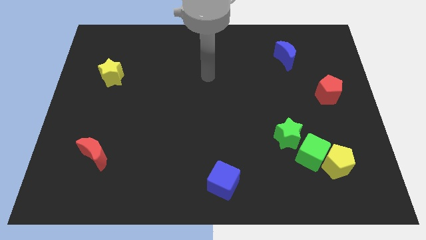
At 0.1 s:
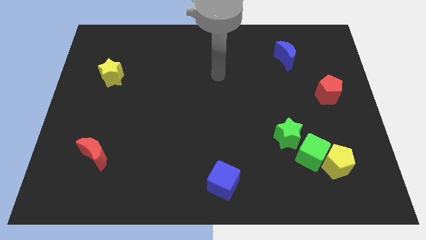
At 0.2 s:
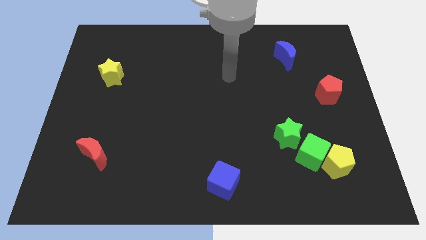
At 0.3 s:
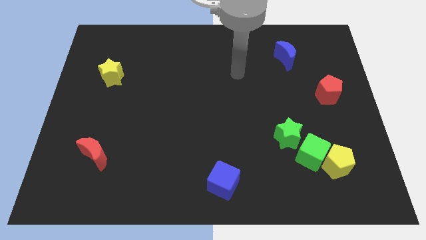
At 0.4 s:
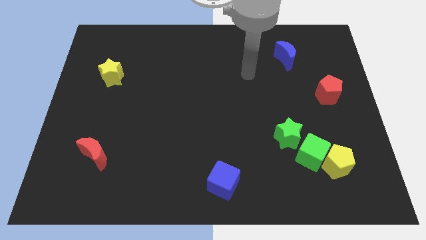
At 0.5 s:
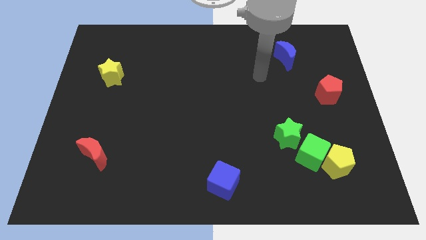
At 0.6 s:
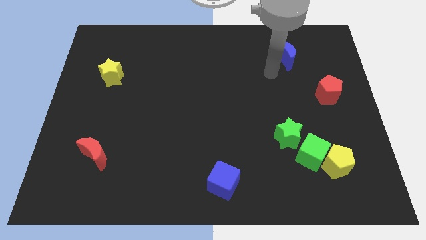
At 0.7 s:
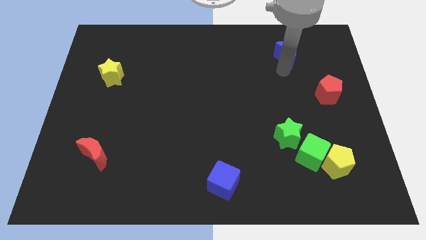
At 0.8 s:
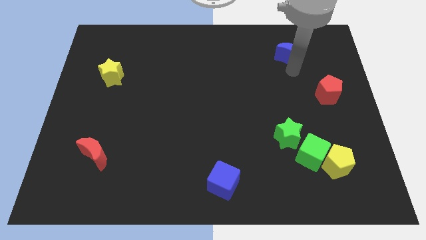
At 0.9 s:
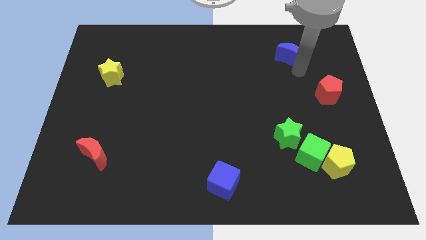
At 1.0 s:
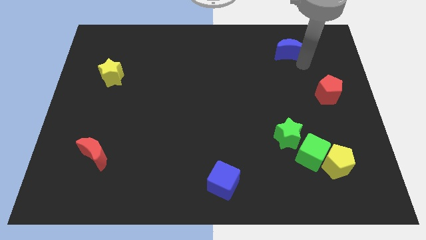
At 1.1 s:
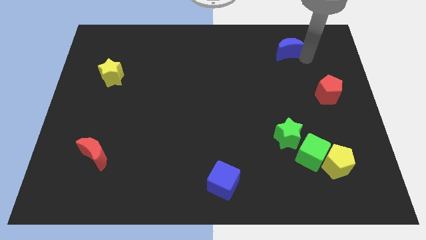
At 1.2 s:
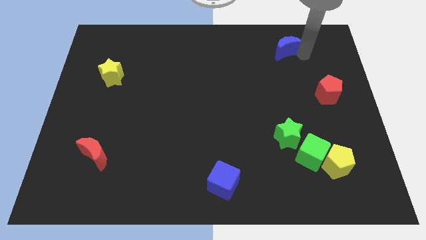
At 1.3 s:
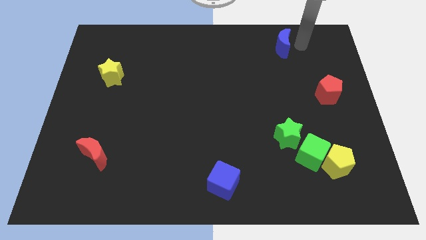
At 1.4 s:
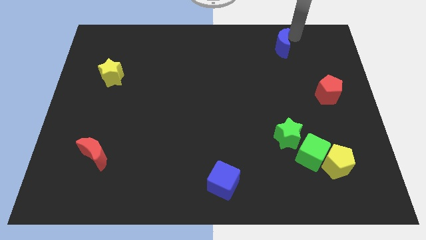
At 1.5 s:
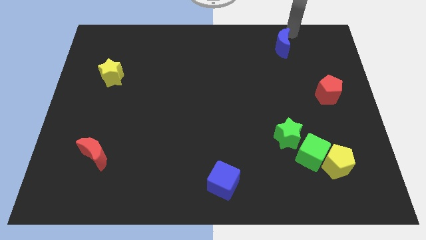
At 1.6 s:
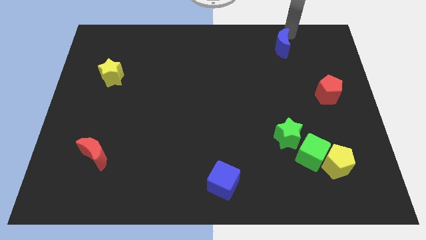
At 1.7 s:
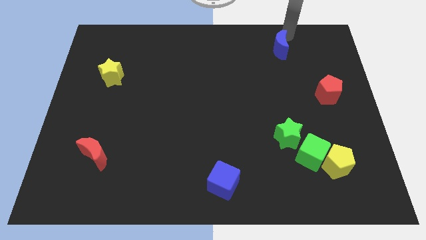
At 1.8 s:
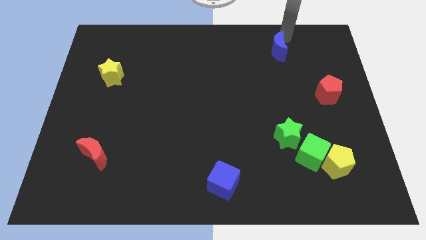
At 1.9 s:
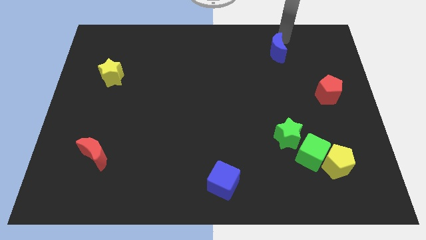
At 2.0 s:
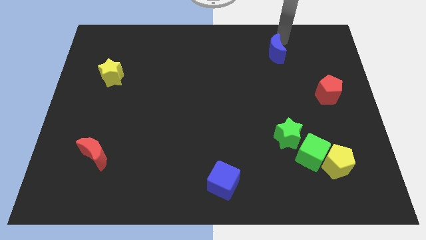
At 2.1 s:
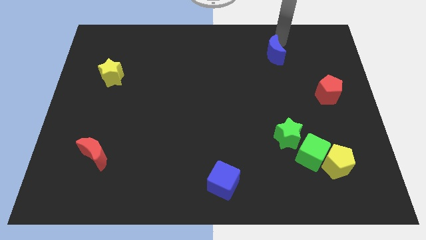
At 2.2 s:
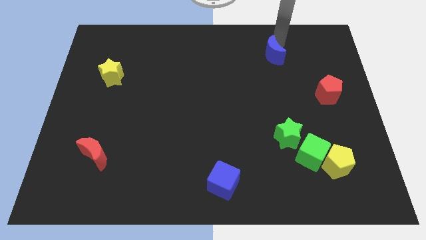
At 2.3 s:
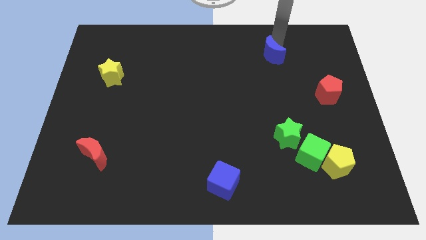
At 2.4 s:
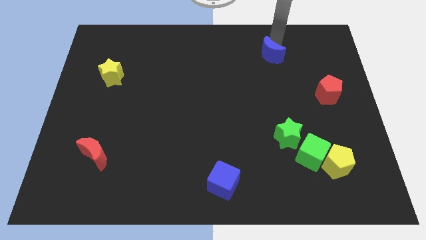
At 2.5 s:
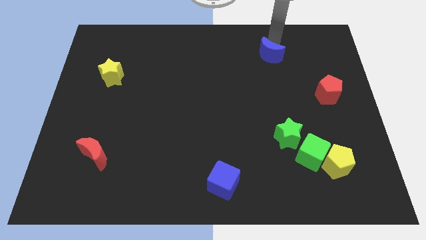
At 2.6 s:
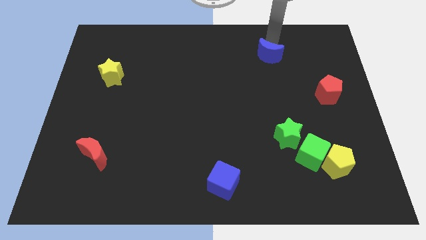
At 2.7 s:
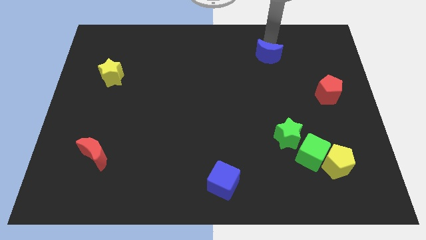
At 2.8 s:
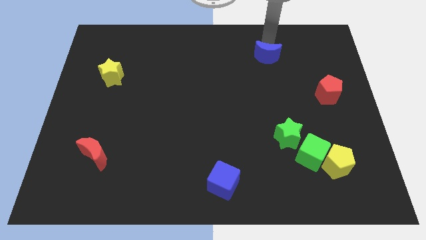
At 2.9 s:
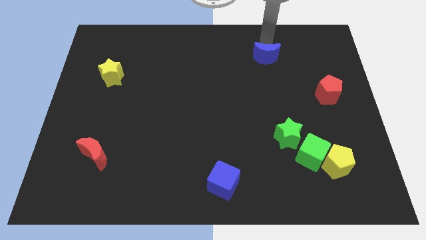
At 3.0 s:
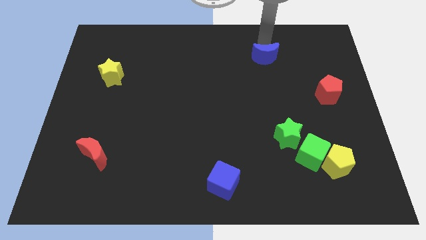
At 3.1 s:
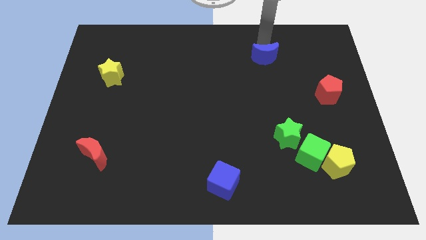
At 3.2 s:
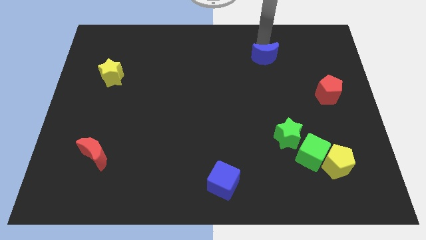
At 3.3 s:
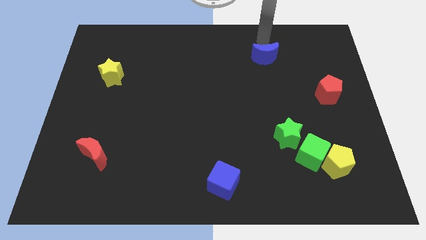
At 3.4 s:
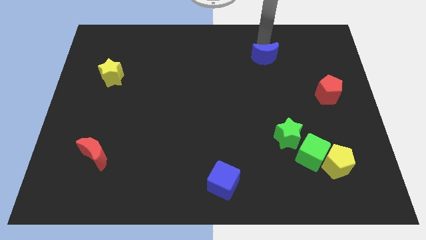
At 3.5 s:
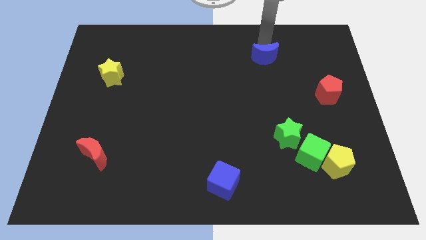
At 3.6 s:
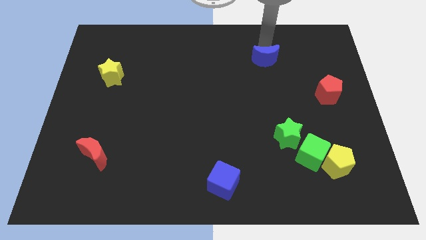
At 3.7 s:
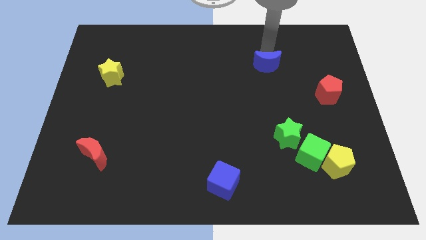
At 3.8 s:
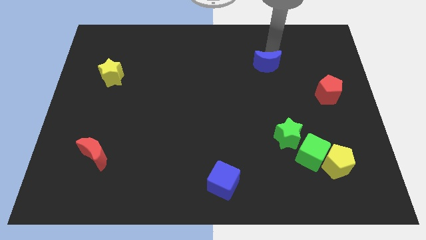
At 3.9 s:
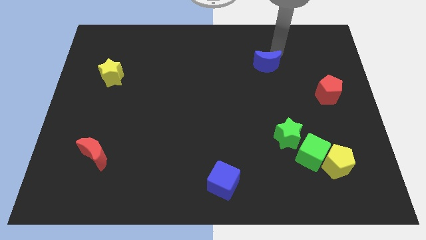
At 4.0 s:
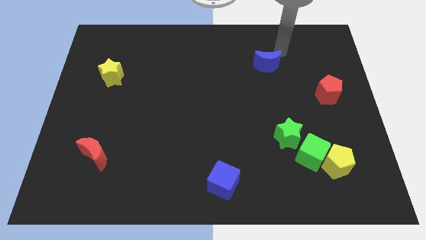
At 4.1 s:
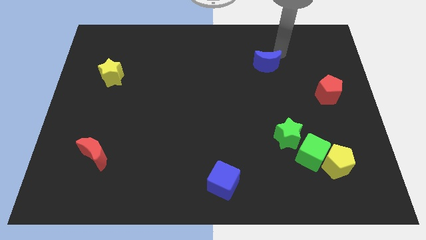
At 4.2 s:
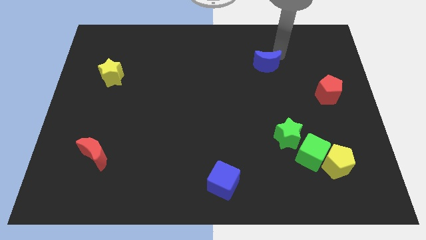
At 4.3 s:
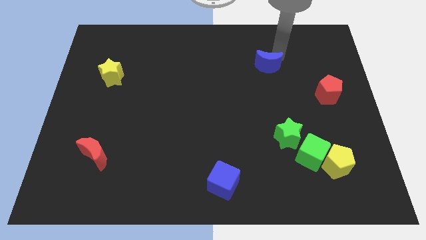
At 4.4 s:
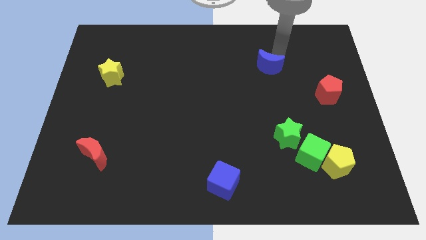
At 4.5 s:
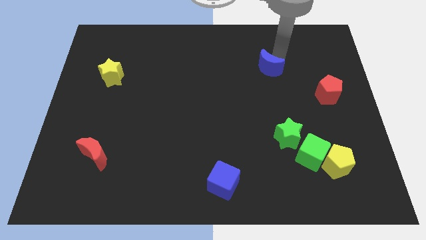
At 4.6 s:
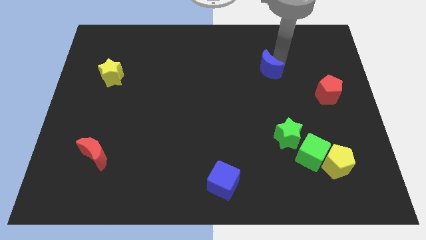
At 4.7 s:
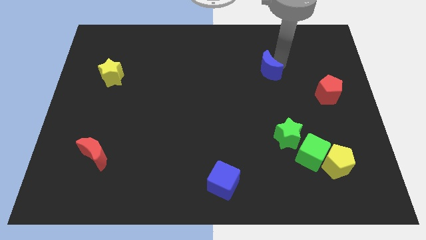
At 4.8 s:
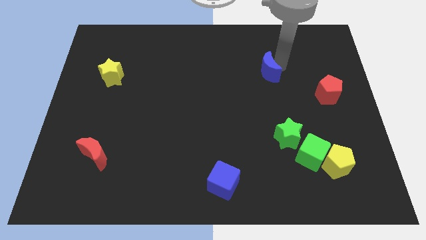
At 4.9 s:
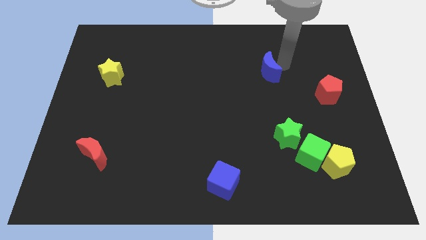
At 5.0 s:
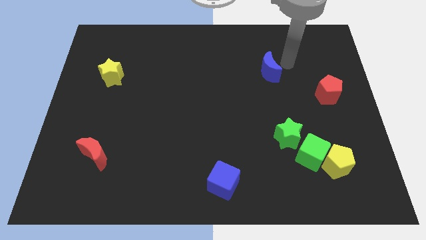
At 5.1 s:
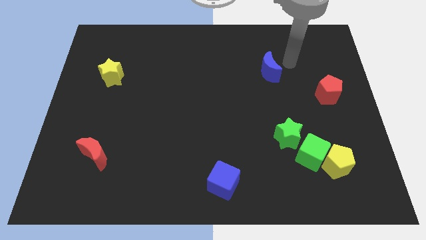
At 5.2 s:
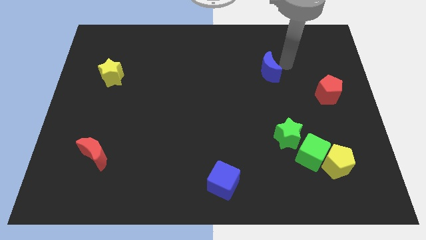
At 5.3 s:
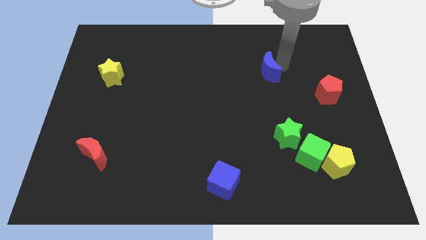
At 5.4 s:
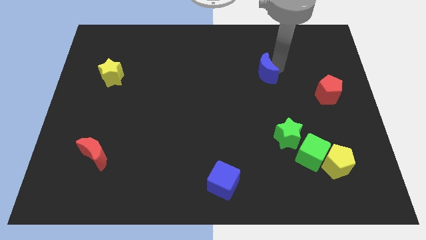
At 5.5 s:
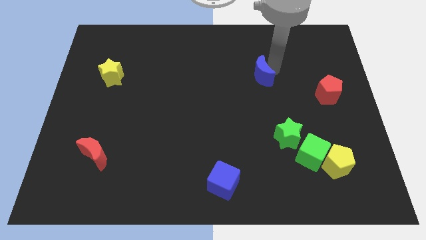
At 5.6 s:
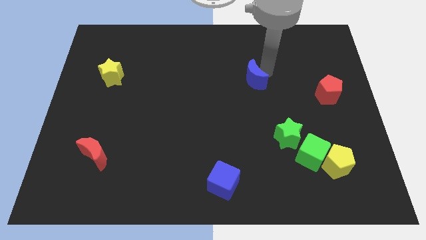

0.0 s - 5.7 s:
push the blue moon to the middle
